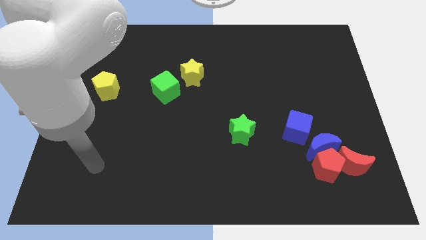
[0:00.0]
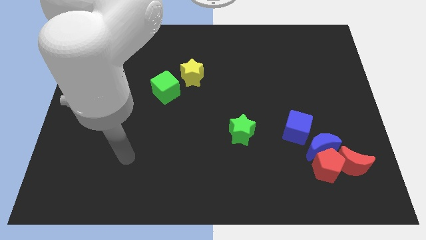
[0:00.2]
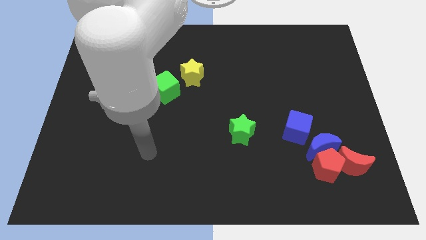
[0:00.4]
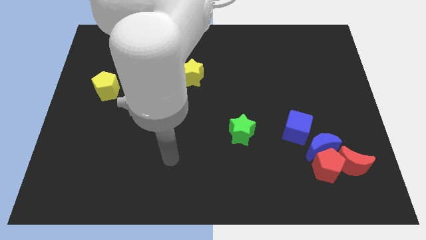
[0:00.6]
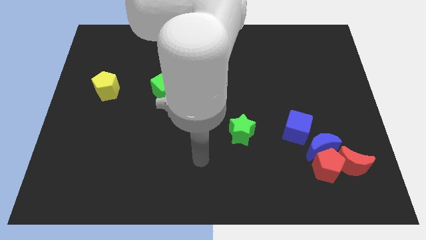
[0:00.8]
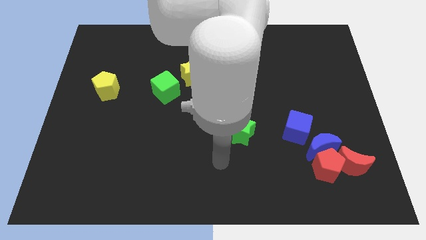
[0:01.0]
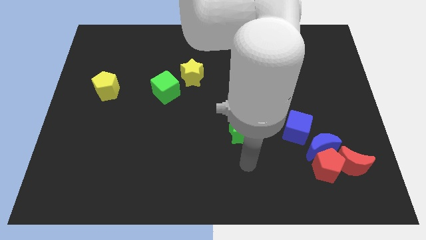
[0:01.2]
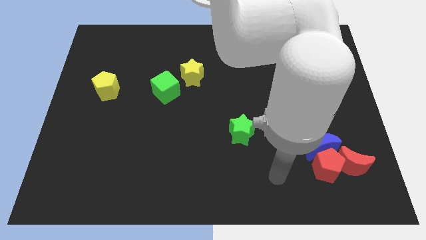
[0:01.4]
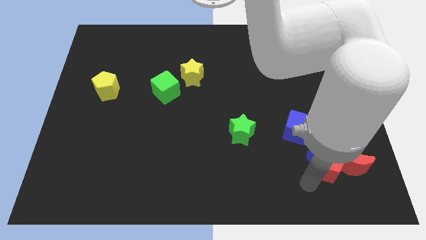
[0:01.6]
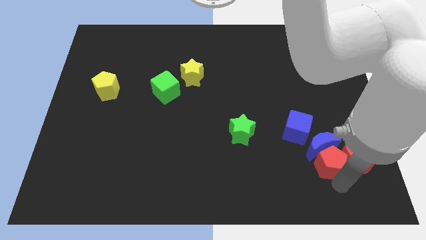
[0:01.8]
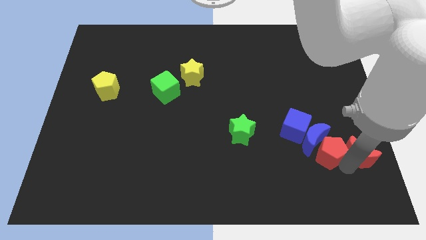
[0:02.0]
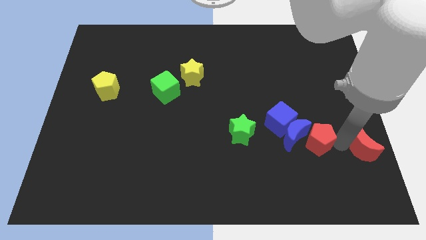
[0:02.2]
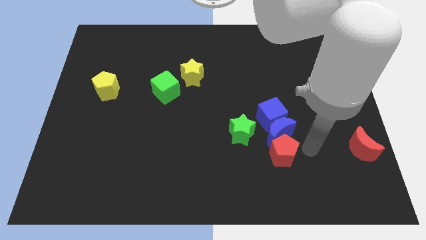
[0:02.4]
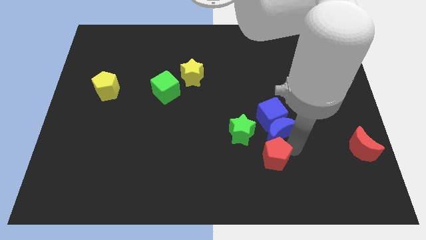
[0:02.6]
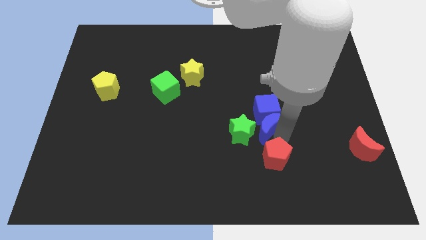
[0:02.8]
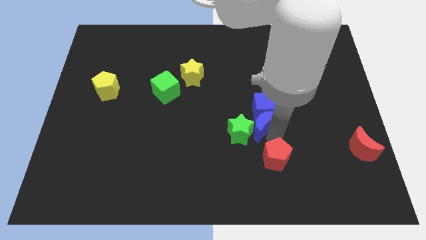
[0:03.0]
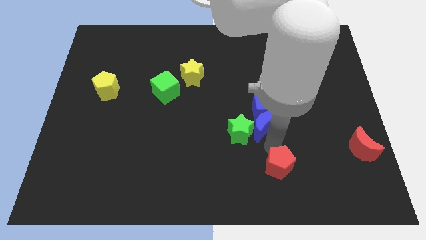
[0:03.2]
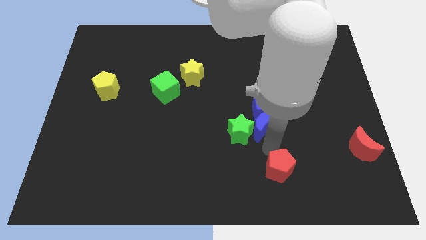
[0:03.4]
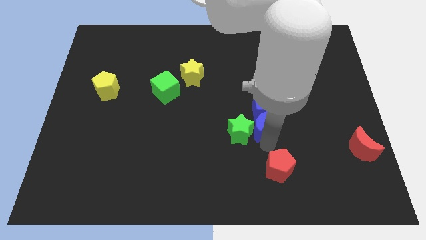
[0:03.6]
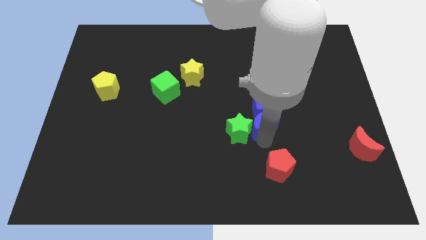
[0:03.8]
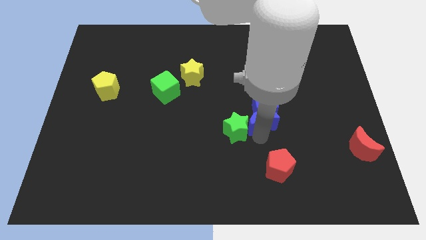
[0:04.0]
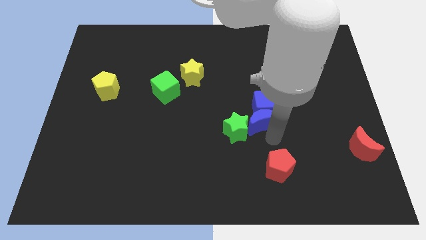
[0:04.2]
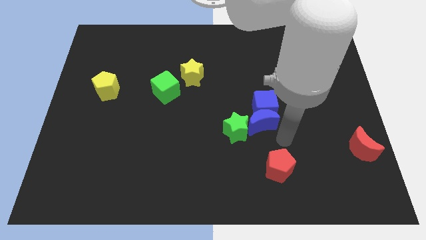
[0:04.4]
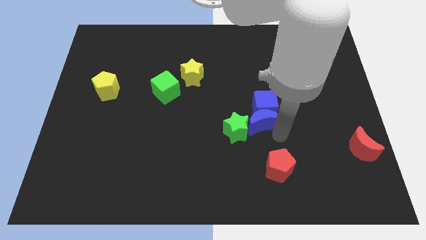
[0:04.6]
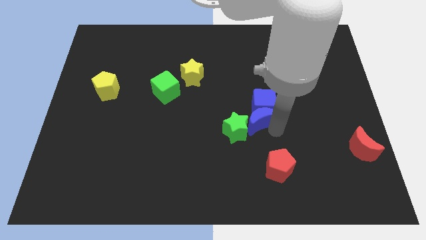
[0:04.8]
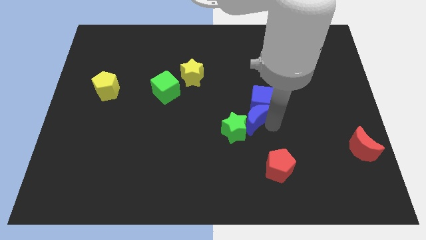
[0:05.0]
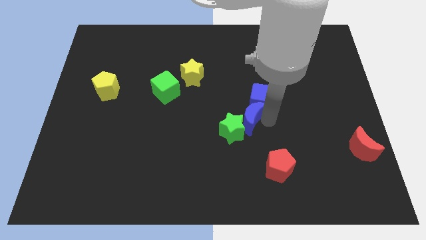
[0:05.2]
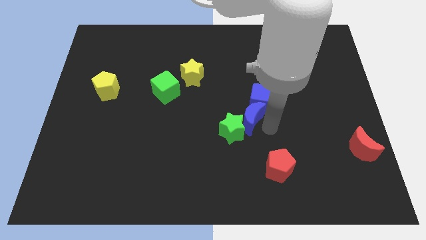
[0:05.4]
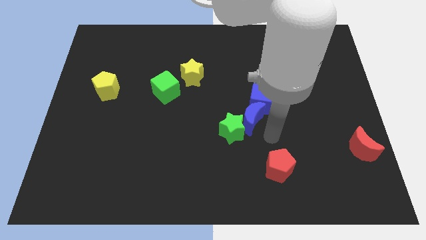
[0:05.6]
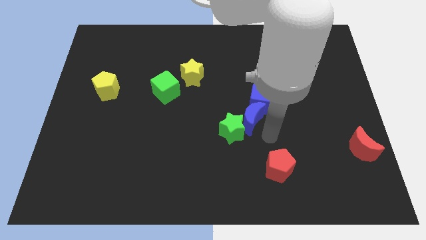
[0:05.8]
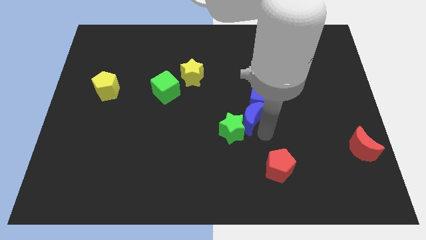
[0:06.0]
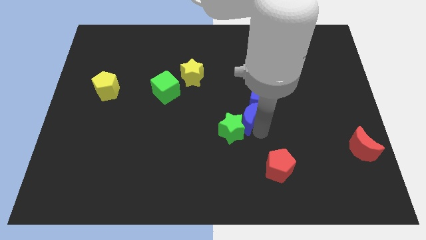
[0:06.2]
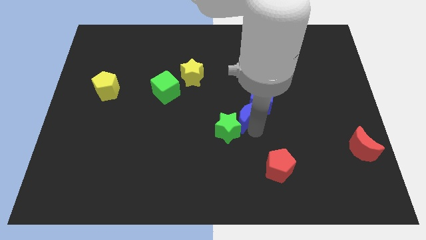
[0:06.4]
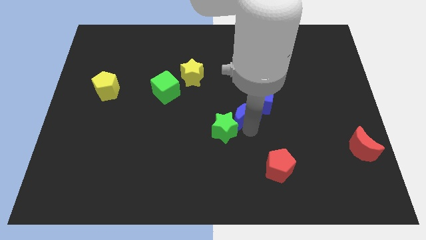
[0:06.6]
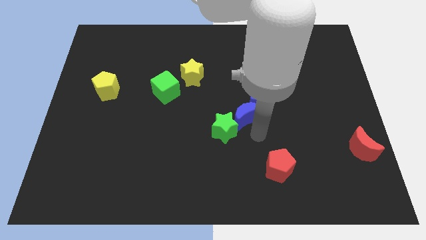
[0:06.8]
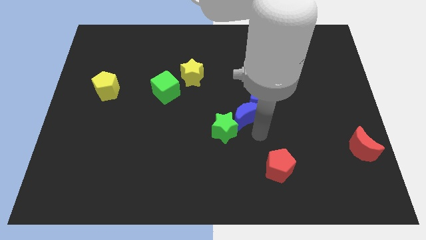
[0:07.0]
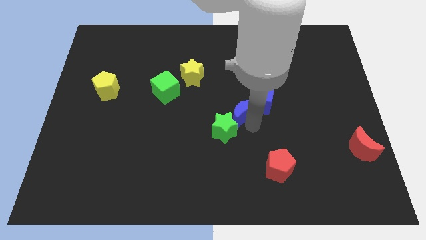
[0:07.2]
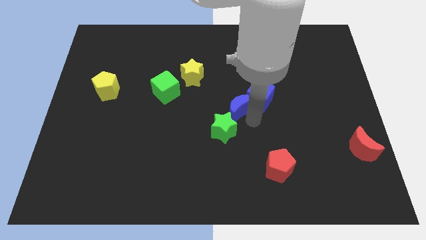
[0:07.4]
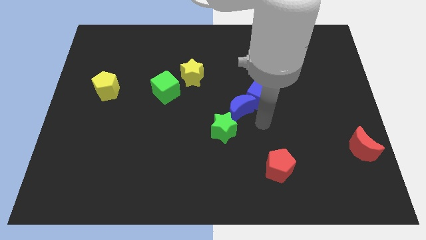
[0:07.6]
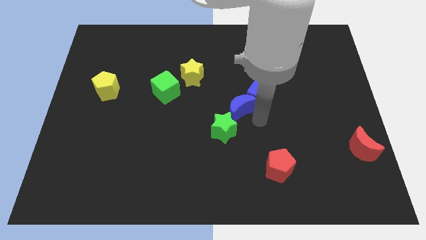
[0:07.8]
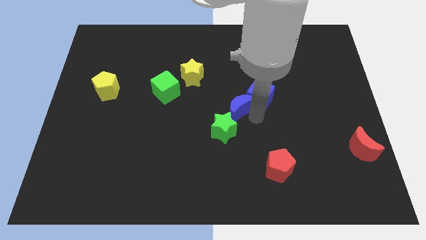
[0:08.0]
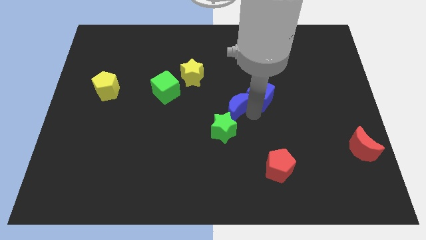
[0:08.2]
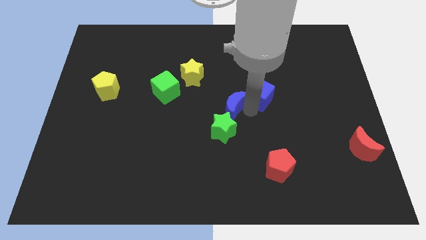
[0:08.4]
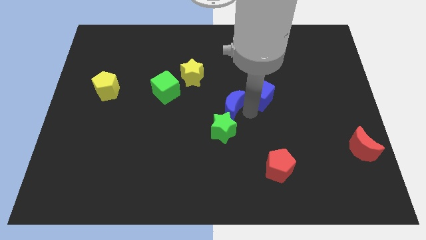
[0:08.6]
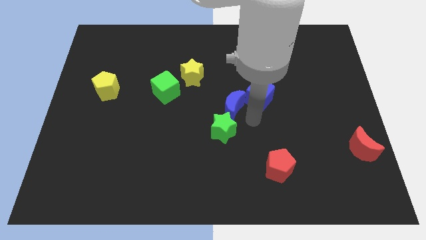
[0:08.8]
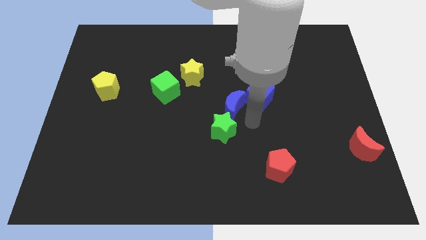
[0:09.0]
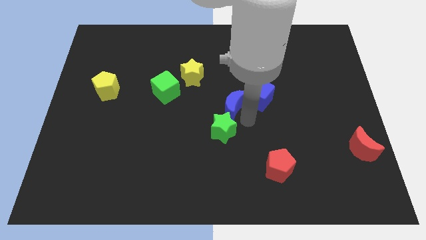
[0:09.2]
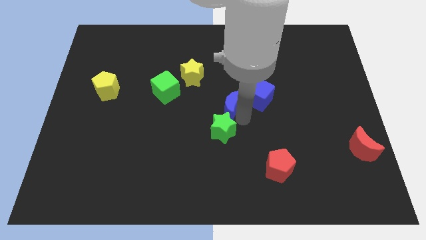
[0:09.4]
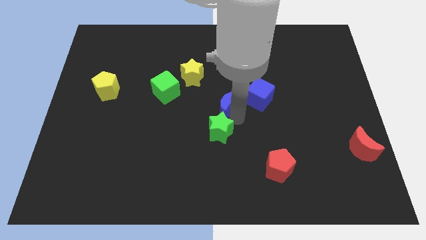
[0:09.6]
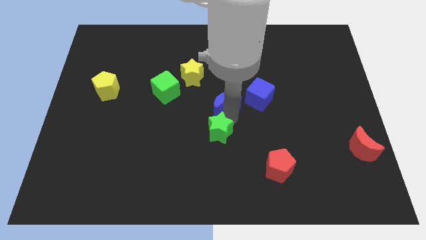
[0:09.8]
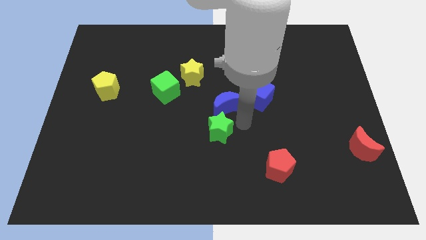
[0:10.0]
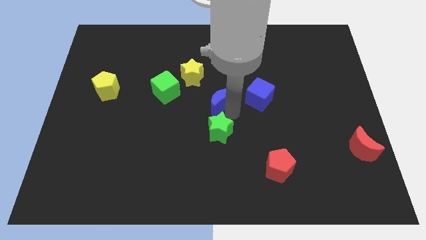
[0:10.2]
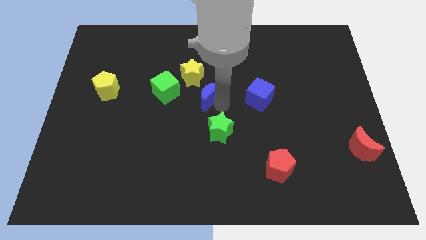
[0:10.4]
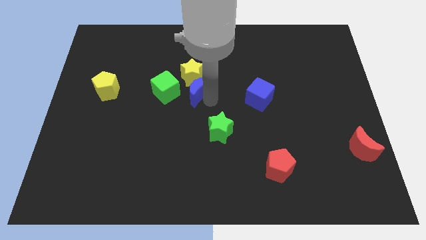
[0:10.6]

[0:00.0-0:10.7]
slide the blue moon close to the yellow star

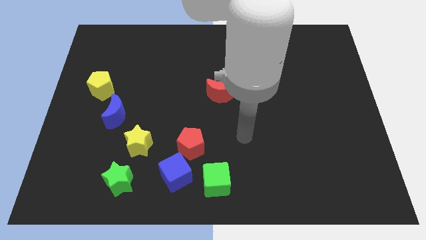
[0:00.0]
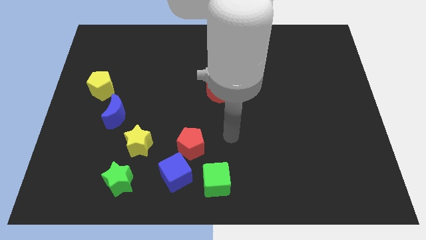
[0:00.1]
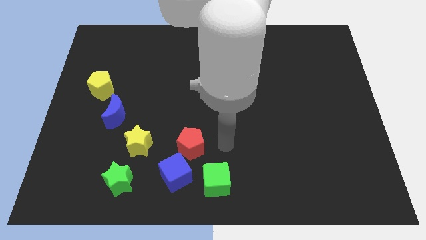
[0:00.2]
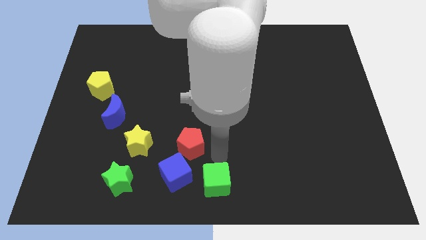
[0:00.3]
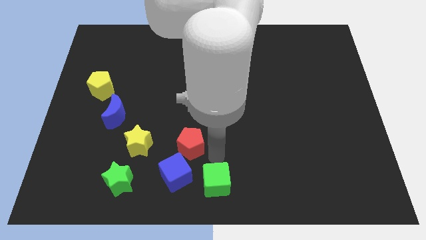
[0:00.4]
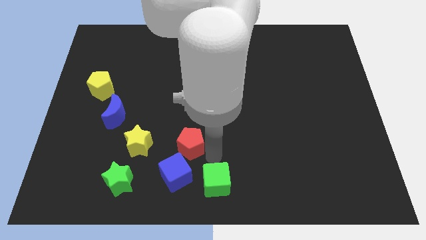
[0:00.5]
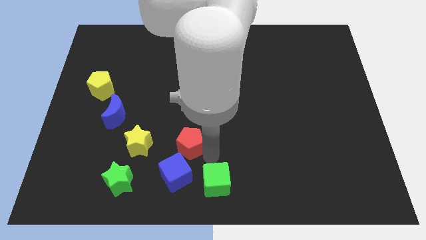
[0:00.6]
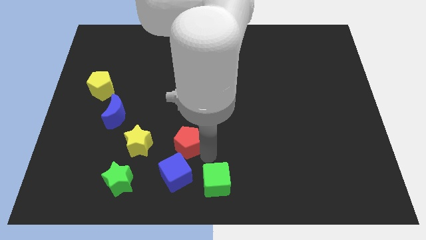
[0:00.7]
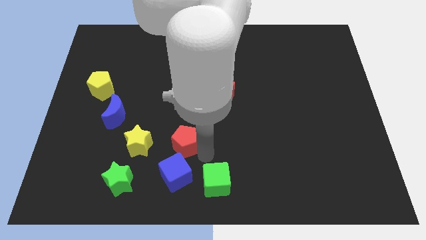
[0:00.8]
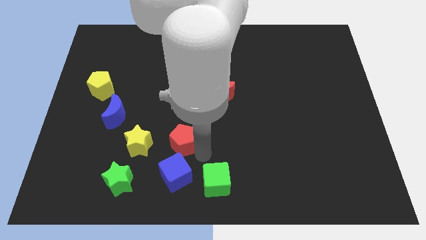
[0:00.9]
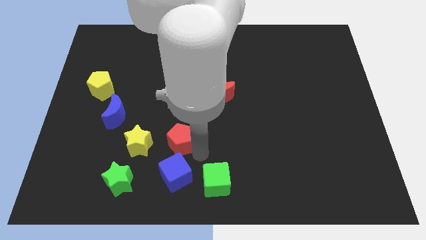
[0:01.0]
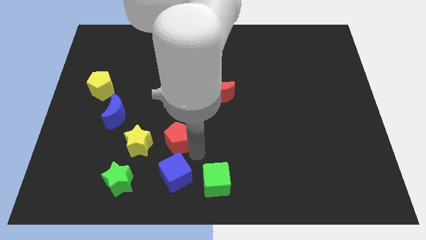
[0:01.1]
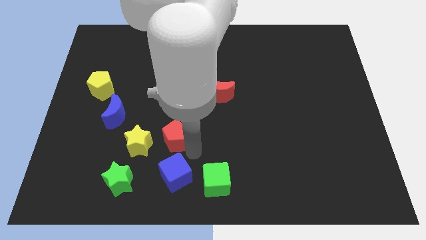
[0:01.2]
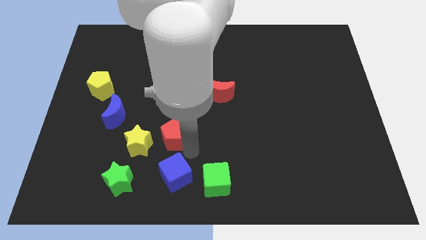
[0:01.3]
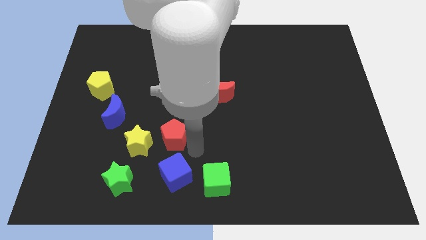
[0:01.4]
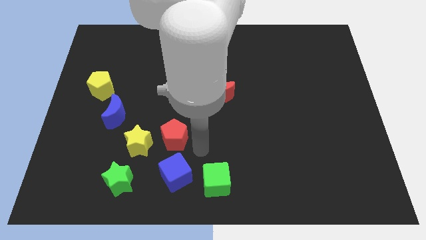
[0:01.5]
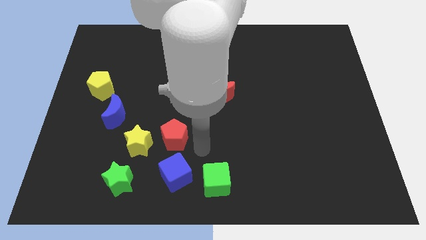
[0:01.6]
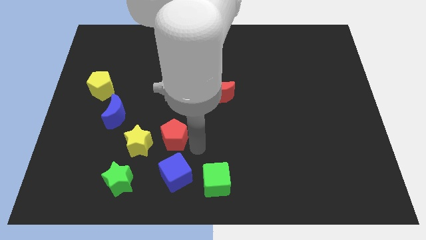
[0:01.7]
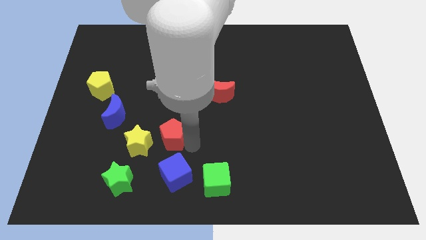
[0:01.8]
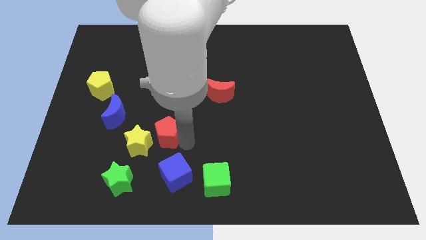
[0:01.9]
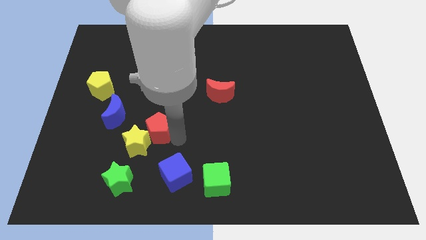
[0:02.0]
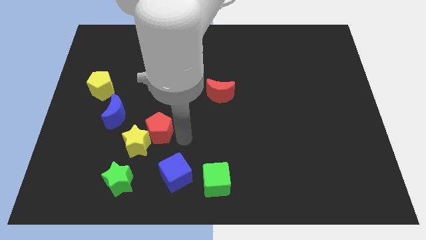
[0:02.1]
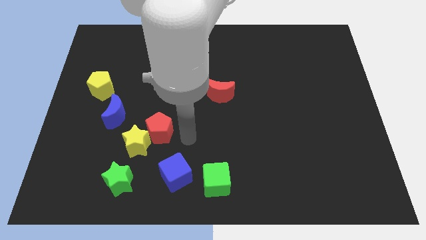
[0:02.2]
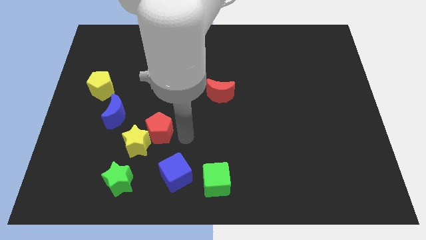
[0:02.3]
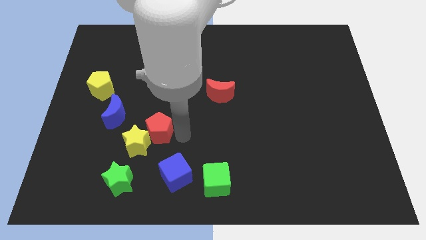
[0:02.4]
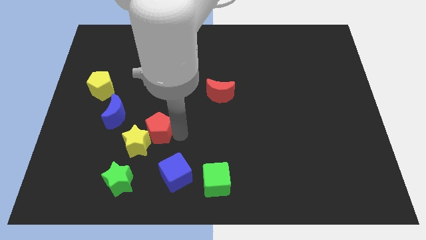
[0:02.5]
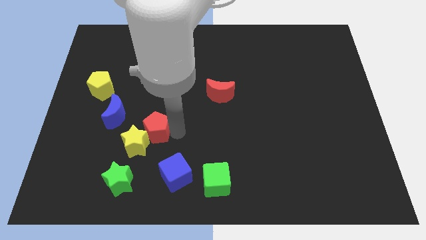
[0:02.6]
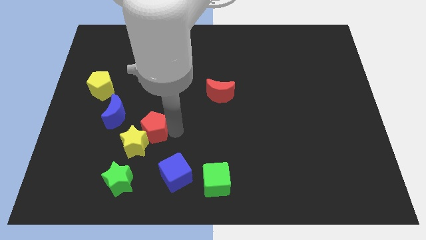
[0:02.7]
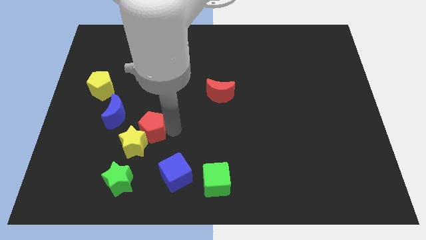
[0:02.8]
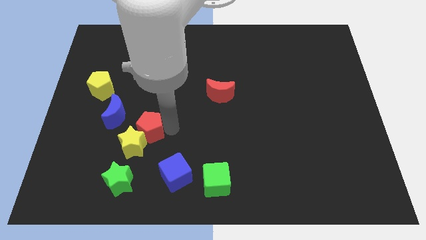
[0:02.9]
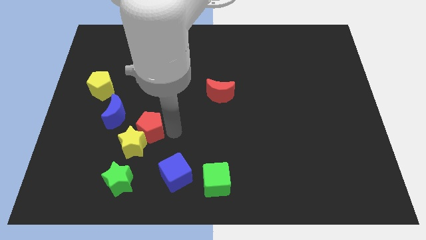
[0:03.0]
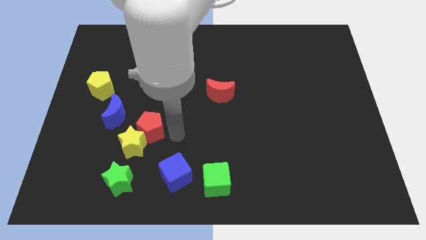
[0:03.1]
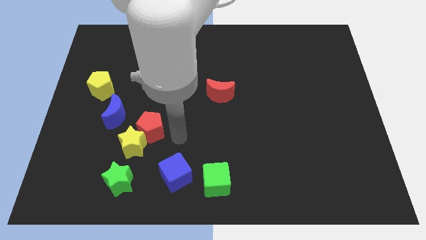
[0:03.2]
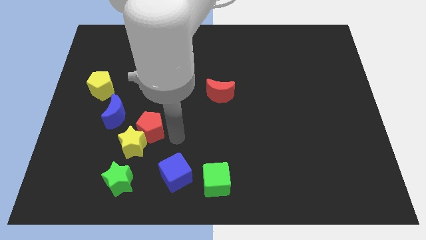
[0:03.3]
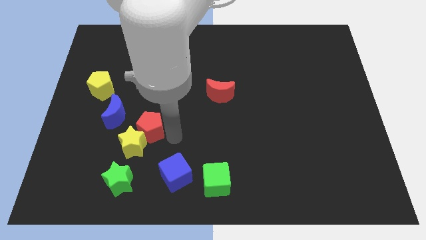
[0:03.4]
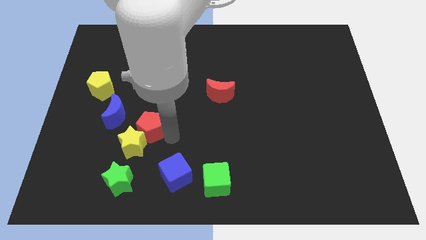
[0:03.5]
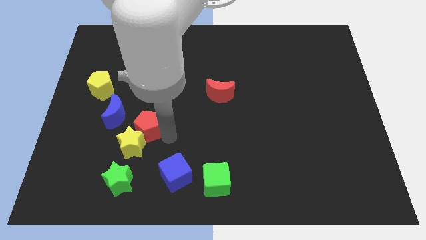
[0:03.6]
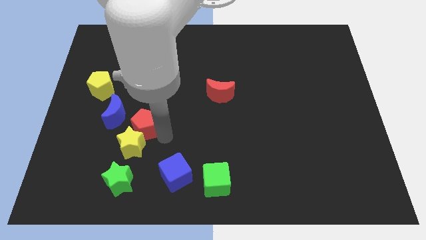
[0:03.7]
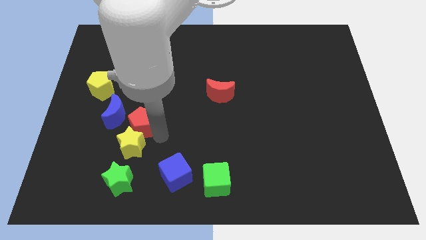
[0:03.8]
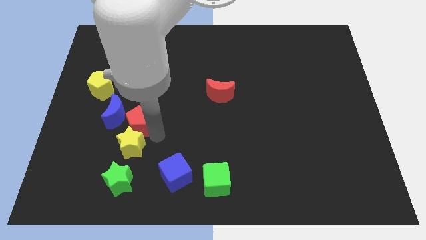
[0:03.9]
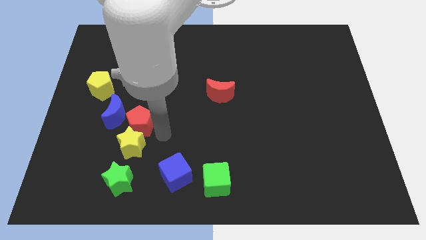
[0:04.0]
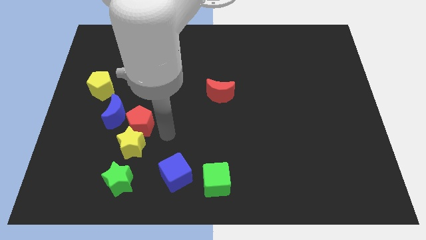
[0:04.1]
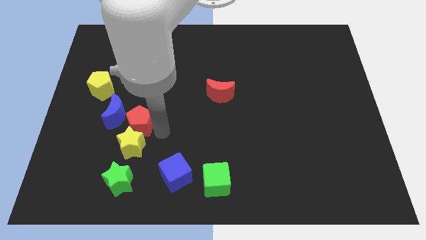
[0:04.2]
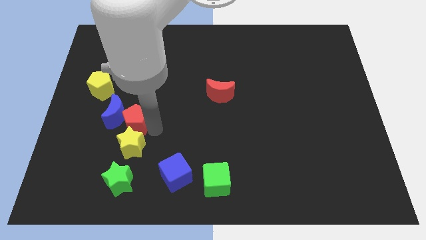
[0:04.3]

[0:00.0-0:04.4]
put the red pentagon towards the blue moon
